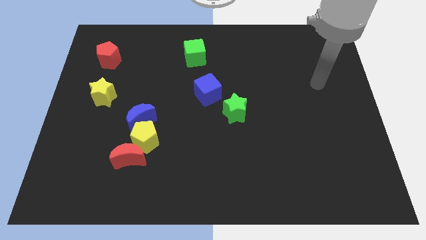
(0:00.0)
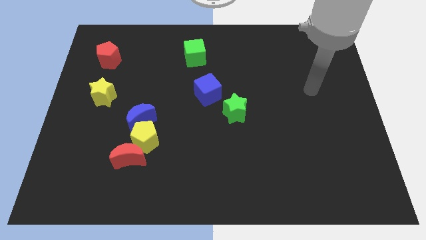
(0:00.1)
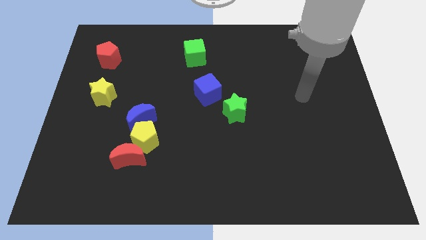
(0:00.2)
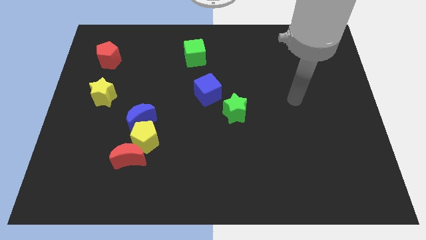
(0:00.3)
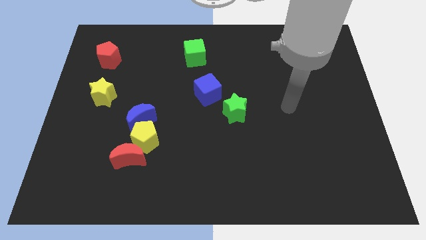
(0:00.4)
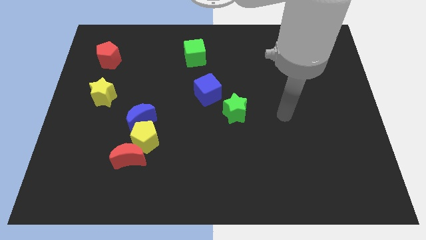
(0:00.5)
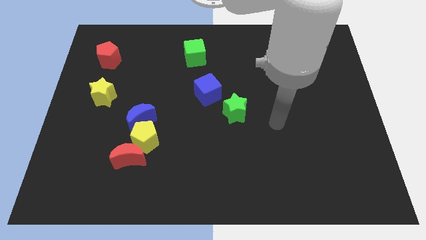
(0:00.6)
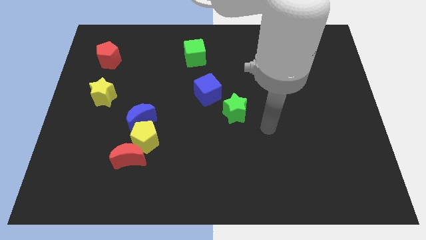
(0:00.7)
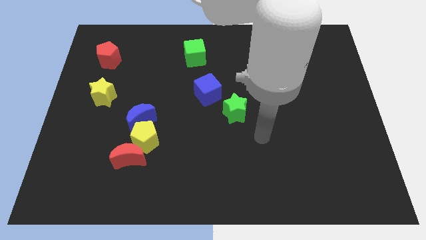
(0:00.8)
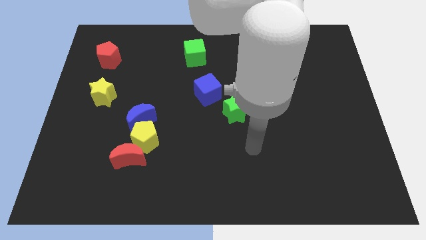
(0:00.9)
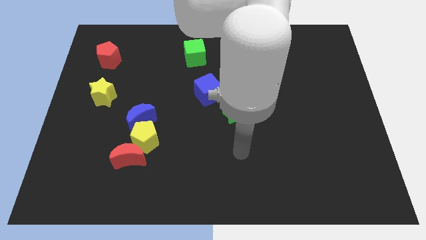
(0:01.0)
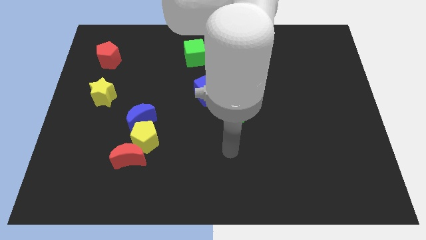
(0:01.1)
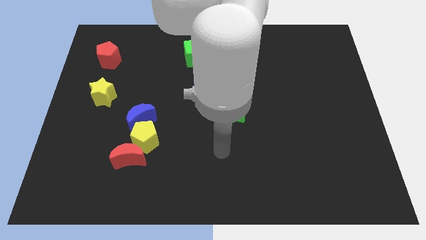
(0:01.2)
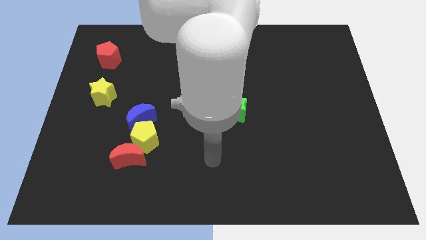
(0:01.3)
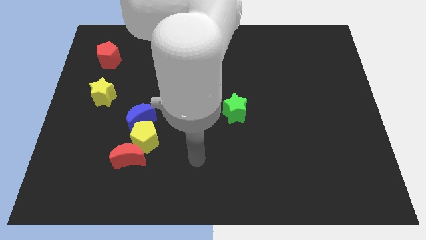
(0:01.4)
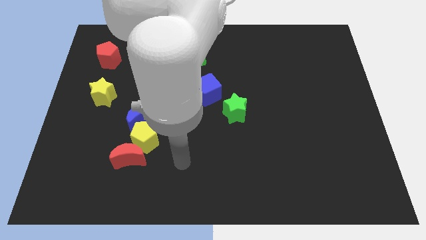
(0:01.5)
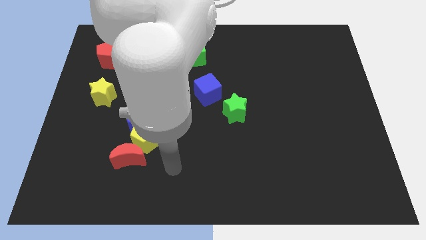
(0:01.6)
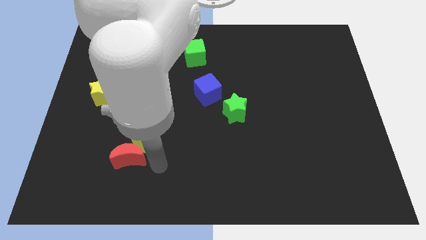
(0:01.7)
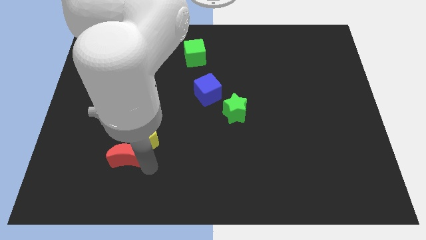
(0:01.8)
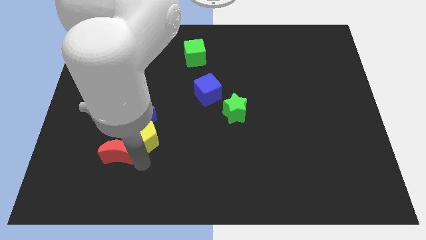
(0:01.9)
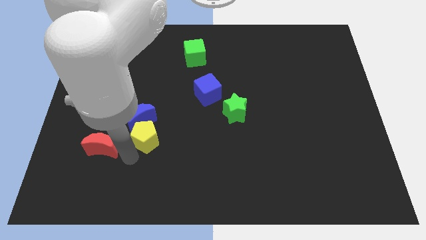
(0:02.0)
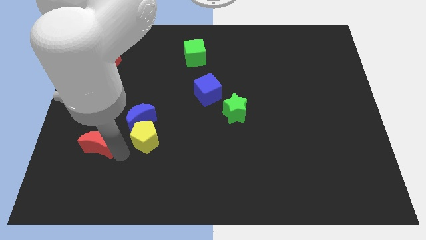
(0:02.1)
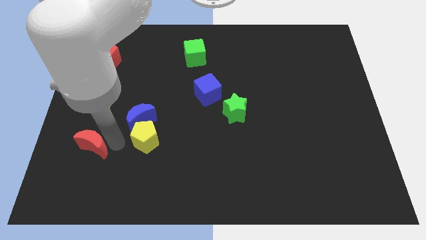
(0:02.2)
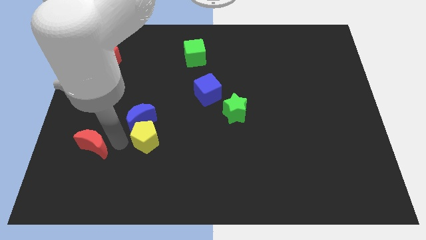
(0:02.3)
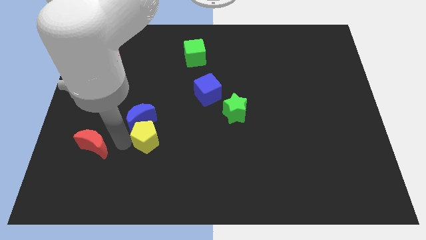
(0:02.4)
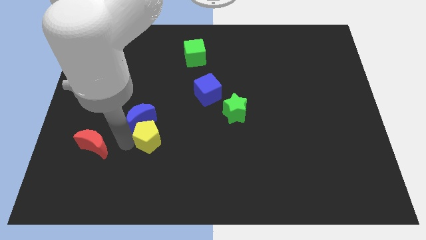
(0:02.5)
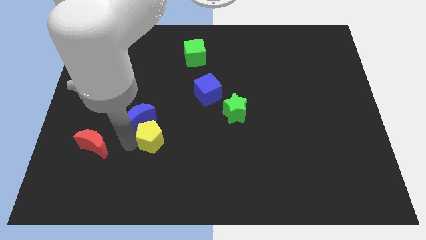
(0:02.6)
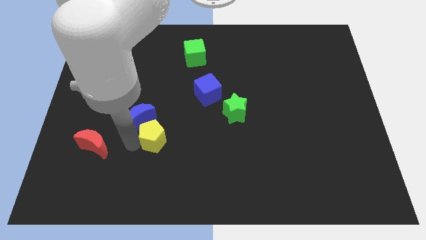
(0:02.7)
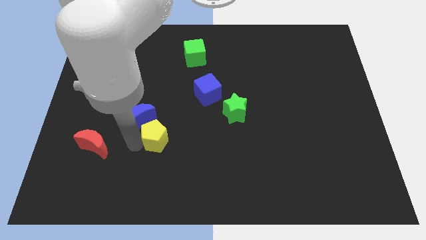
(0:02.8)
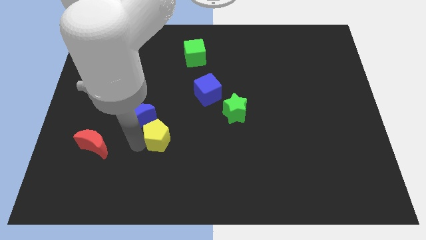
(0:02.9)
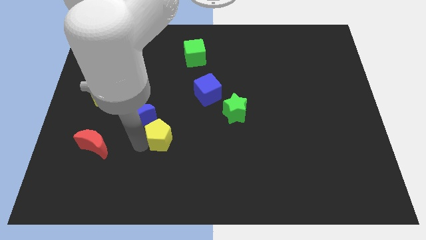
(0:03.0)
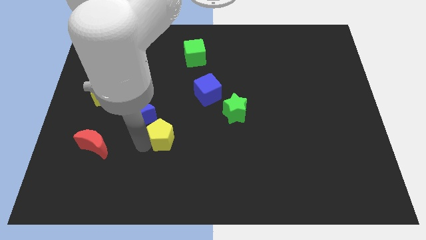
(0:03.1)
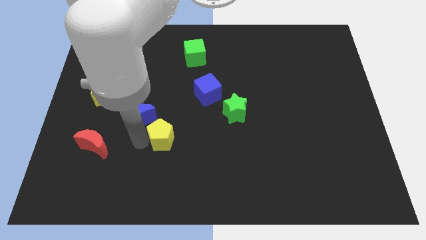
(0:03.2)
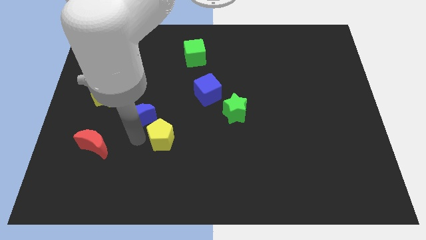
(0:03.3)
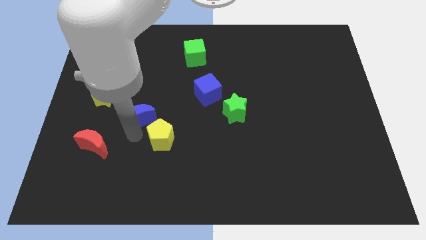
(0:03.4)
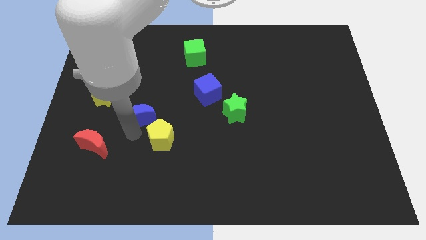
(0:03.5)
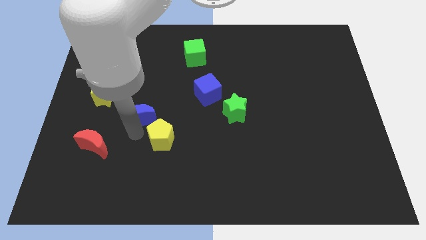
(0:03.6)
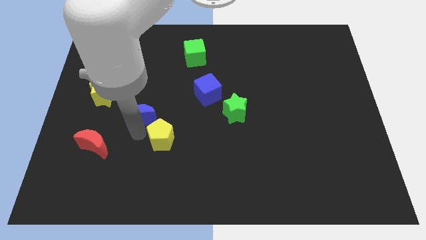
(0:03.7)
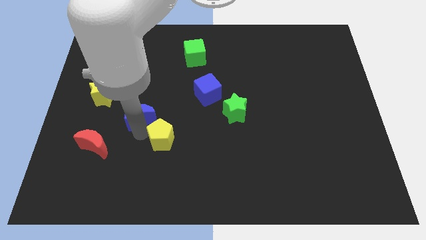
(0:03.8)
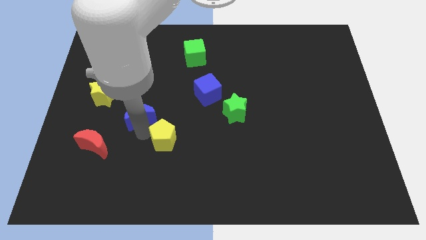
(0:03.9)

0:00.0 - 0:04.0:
separate the yellow pentagon from the red moon and blue moon

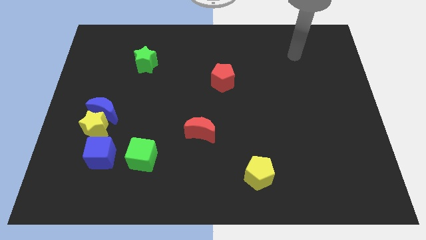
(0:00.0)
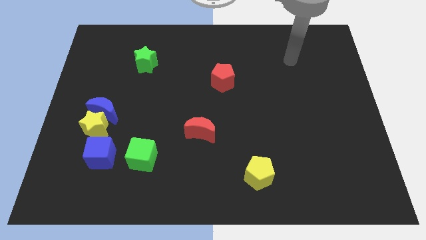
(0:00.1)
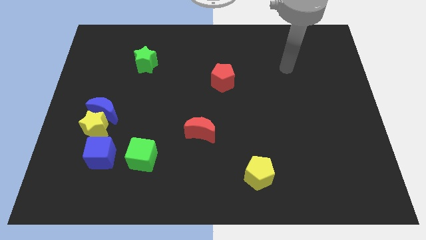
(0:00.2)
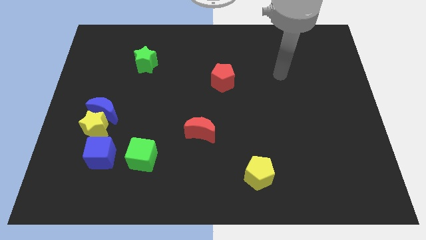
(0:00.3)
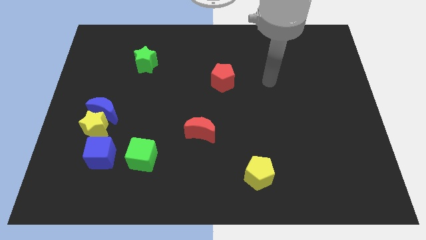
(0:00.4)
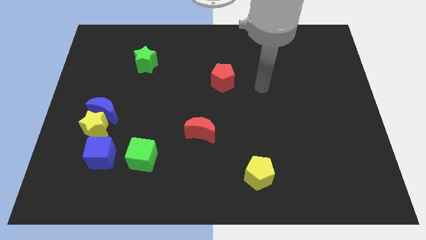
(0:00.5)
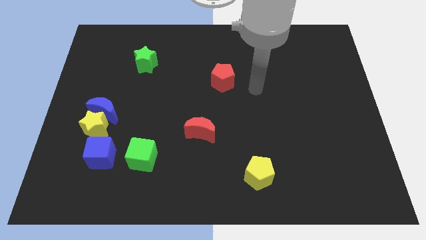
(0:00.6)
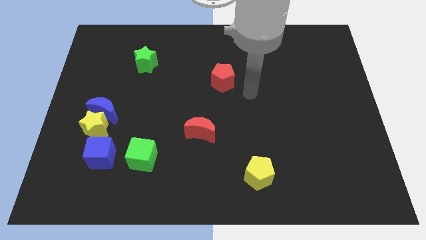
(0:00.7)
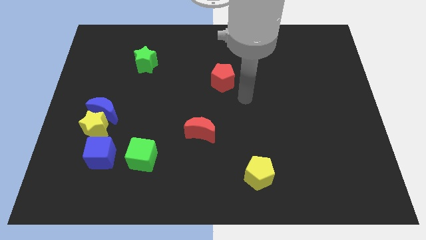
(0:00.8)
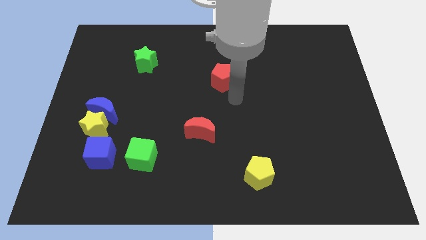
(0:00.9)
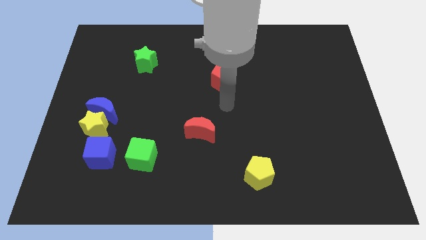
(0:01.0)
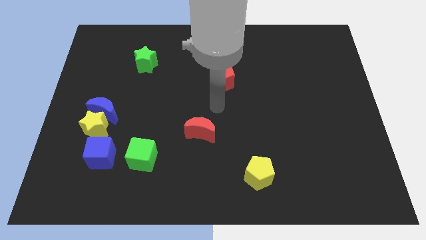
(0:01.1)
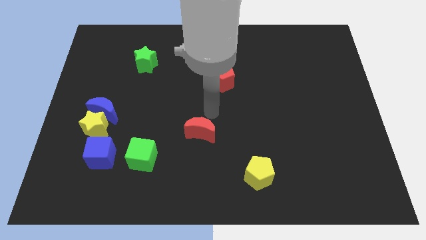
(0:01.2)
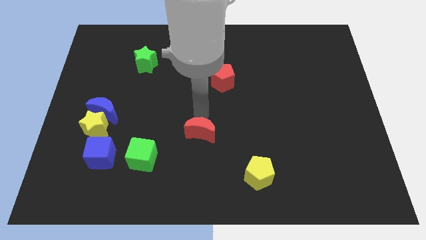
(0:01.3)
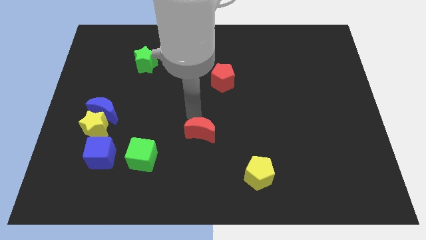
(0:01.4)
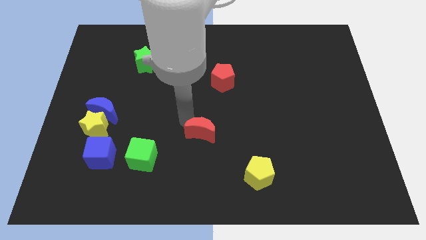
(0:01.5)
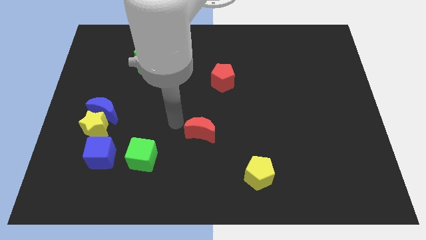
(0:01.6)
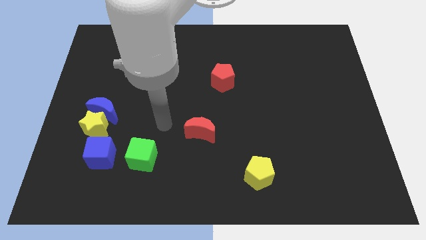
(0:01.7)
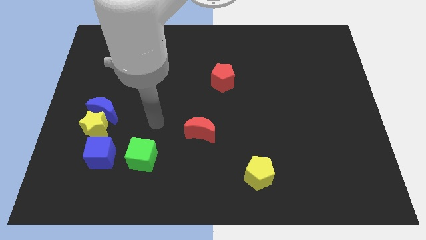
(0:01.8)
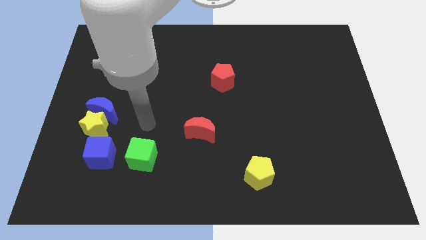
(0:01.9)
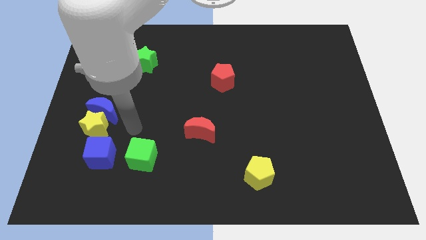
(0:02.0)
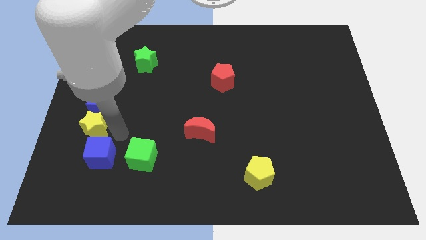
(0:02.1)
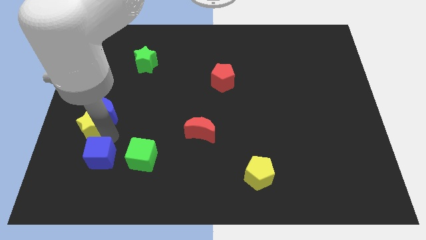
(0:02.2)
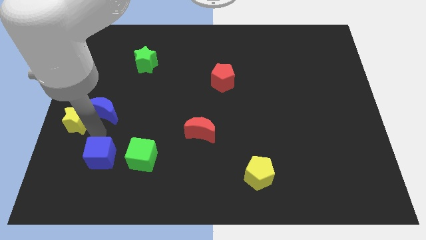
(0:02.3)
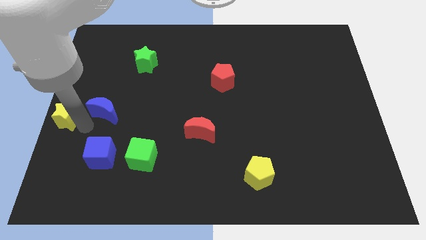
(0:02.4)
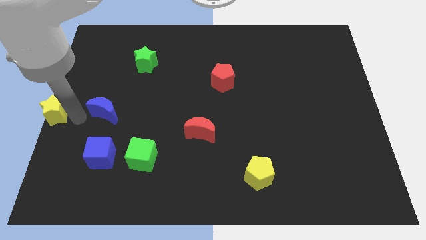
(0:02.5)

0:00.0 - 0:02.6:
separate the blue moon from the yellow star

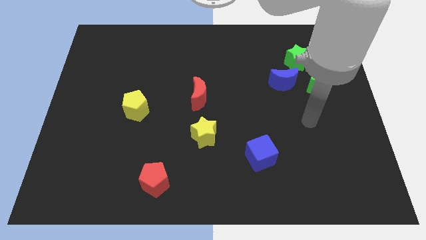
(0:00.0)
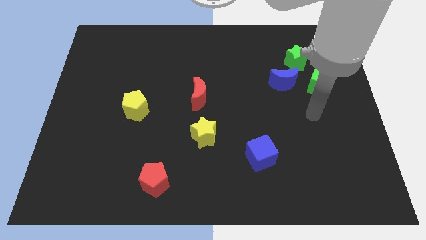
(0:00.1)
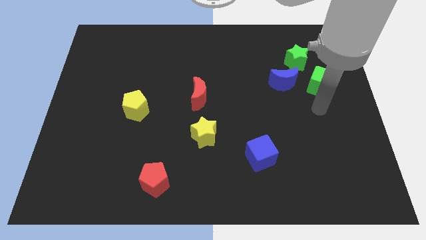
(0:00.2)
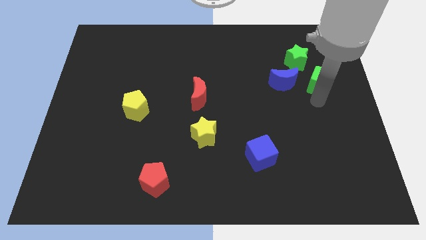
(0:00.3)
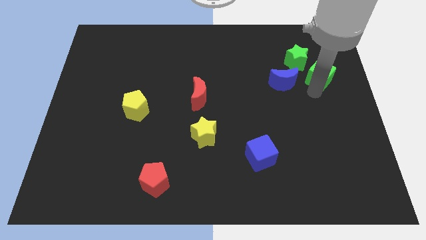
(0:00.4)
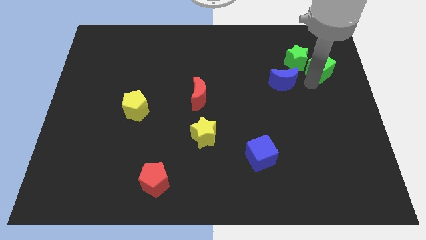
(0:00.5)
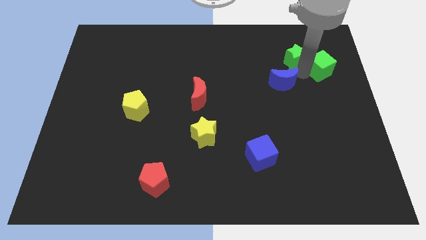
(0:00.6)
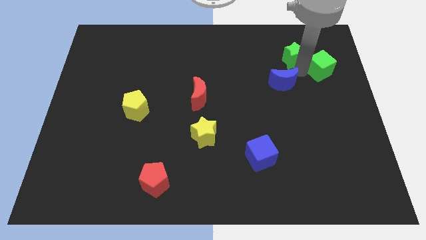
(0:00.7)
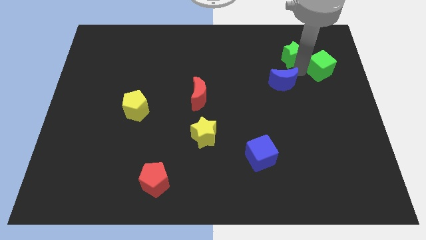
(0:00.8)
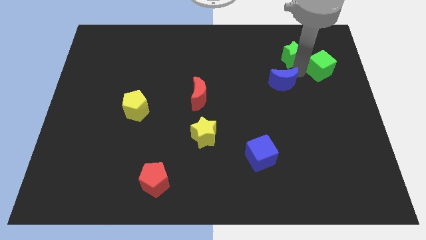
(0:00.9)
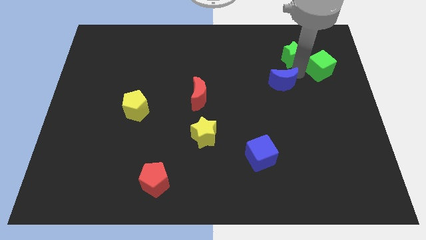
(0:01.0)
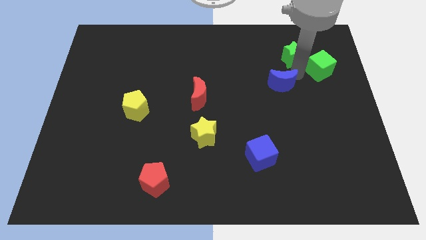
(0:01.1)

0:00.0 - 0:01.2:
pull the blue moon apart from the green star and green cube

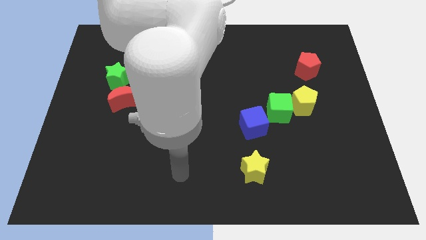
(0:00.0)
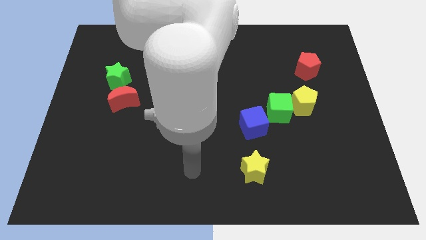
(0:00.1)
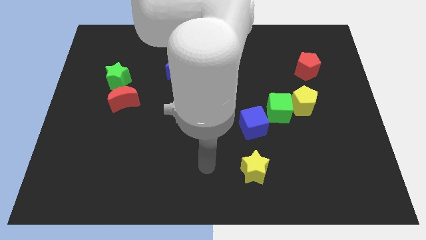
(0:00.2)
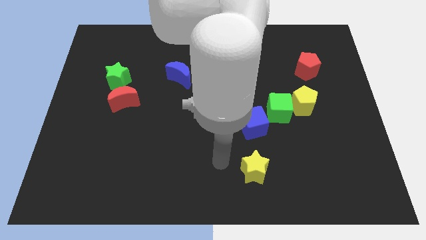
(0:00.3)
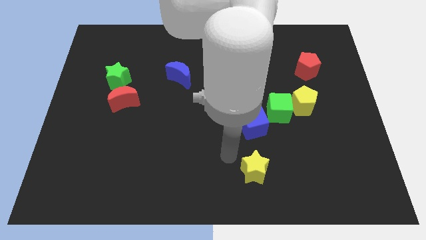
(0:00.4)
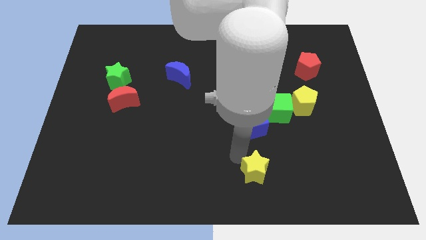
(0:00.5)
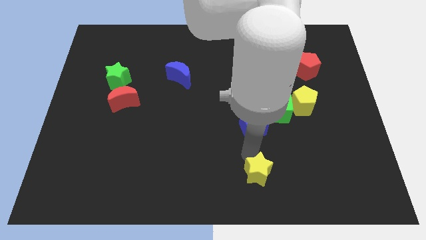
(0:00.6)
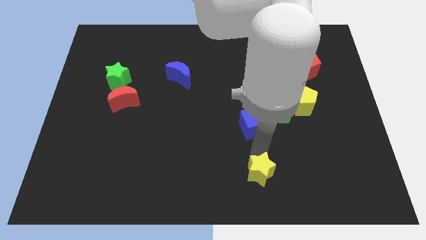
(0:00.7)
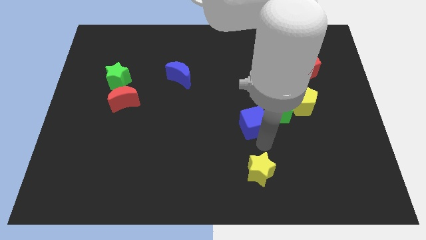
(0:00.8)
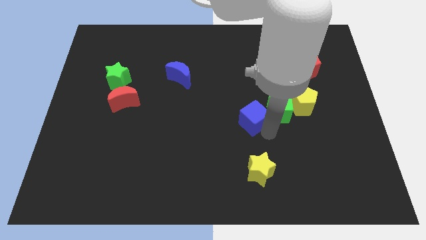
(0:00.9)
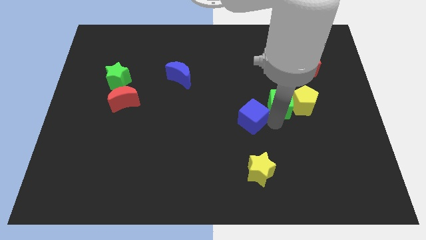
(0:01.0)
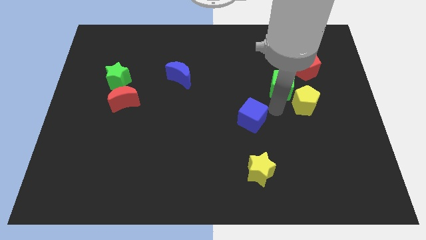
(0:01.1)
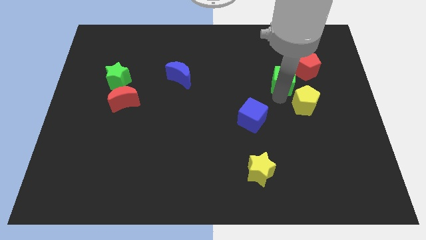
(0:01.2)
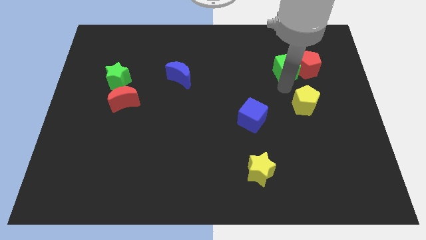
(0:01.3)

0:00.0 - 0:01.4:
separate the yellow pentagon from the green cube

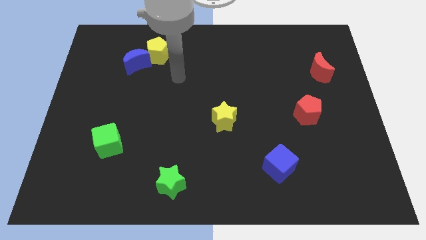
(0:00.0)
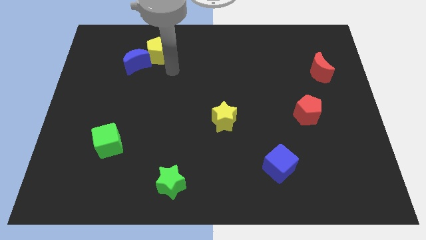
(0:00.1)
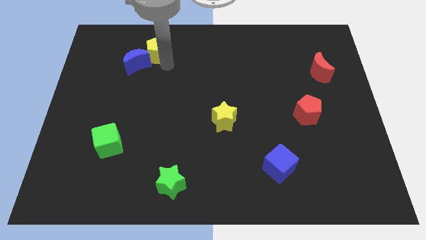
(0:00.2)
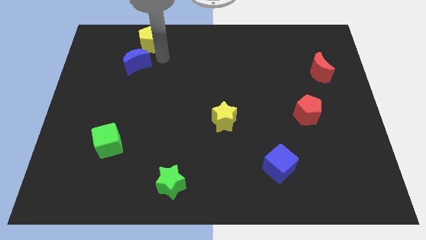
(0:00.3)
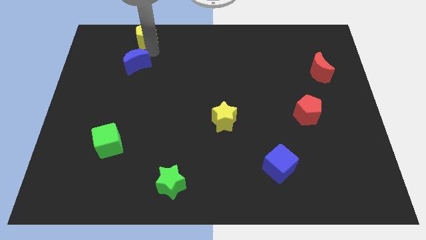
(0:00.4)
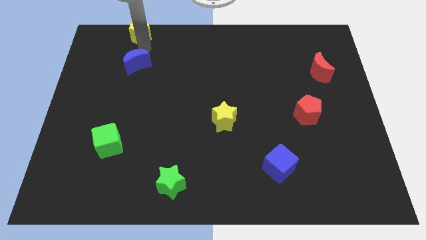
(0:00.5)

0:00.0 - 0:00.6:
separate the blue moon from the yellow pentagon
